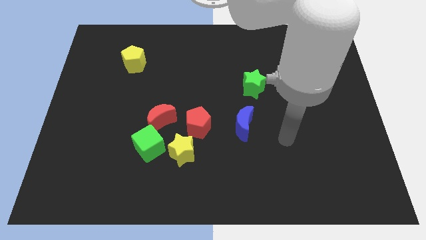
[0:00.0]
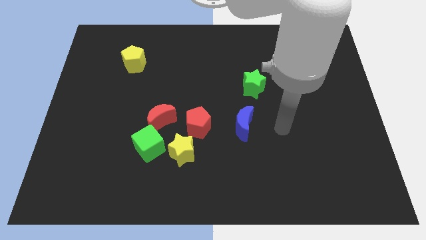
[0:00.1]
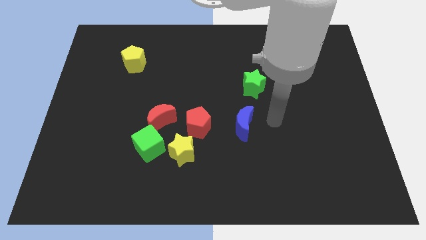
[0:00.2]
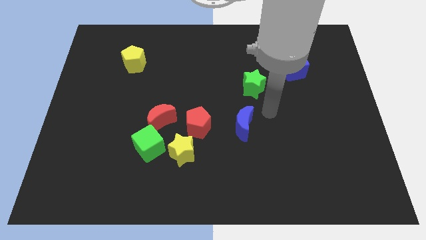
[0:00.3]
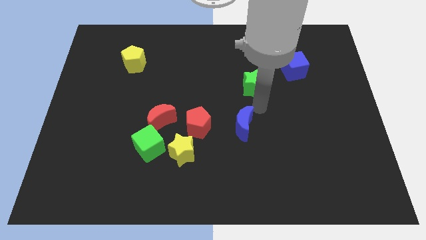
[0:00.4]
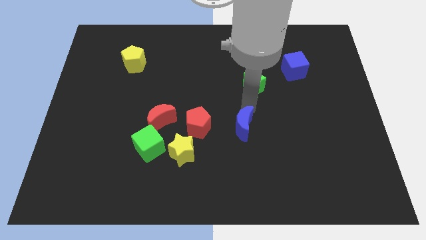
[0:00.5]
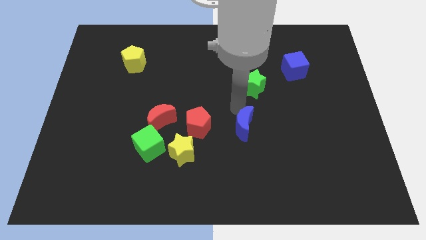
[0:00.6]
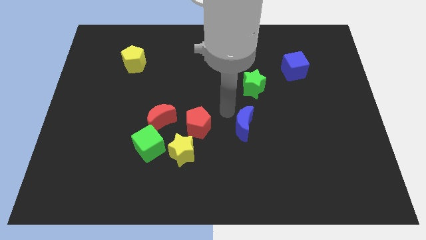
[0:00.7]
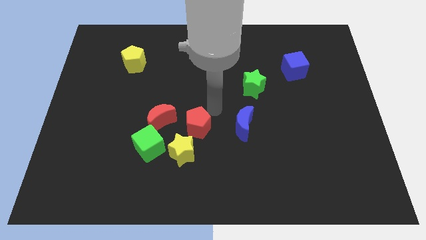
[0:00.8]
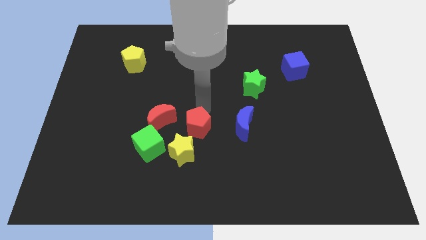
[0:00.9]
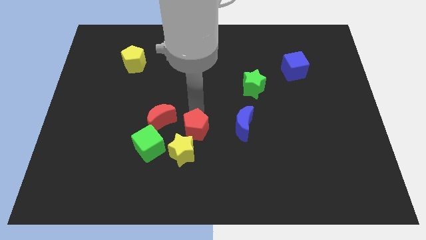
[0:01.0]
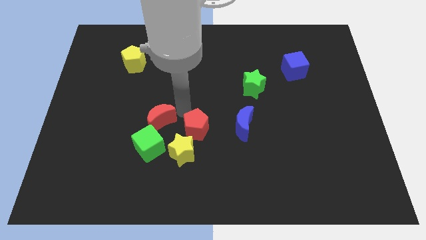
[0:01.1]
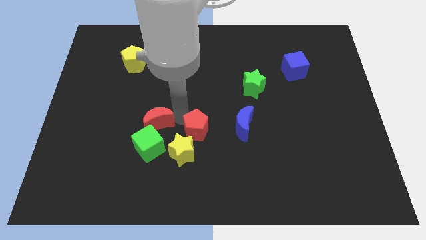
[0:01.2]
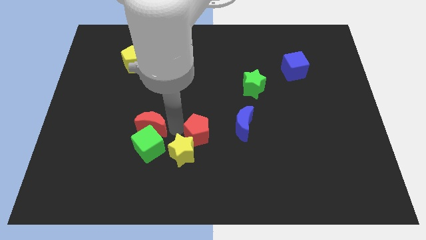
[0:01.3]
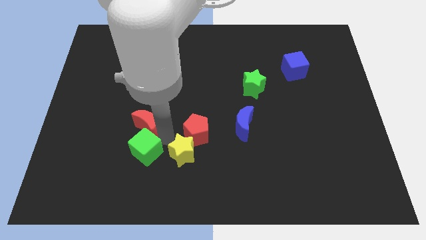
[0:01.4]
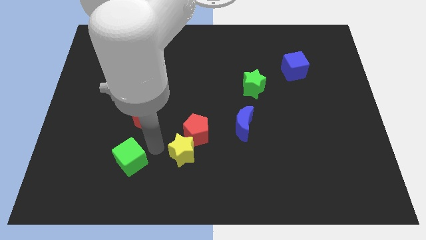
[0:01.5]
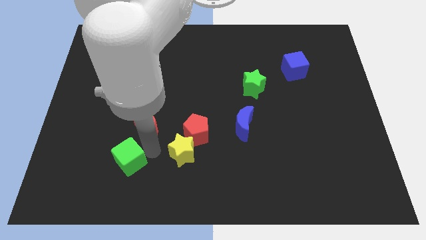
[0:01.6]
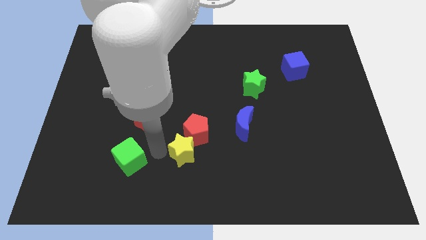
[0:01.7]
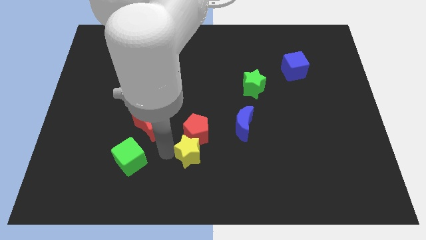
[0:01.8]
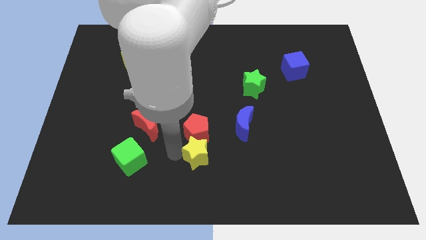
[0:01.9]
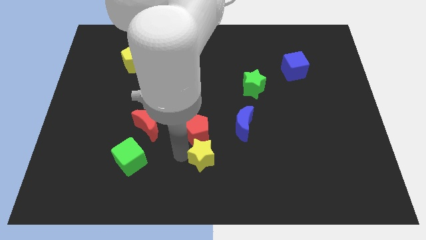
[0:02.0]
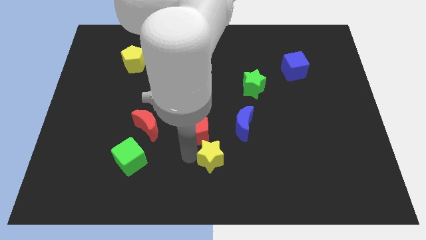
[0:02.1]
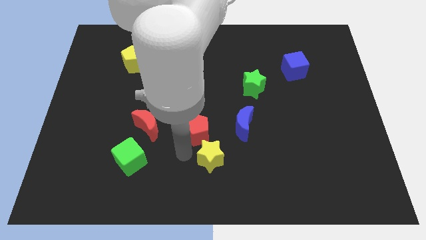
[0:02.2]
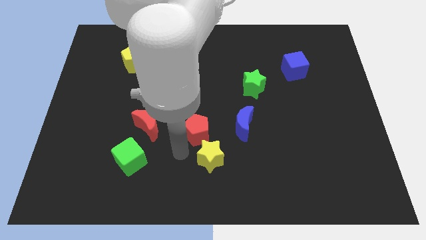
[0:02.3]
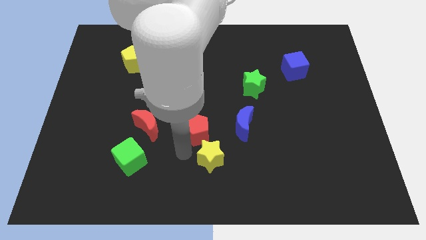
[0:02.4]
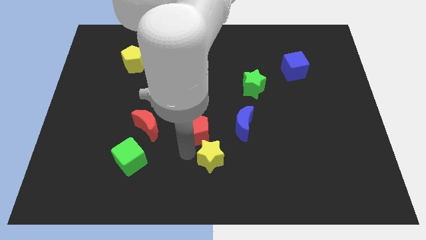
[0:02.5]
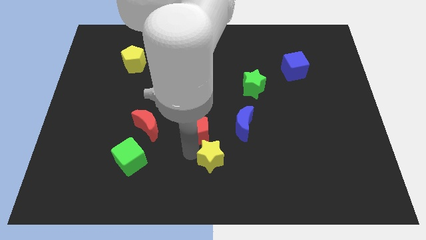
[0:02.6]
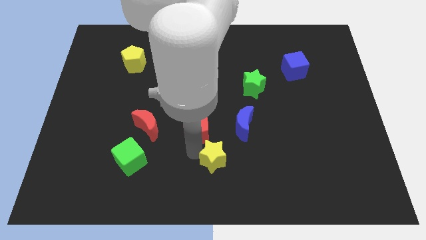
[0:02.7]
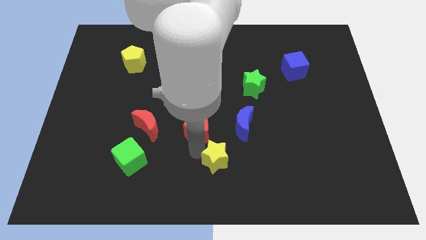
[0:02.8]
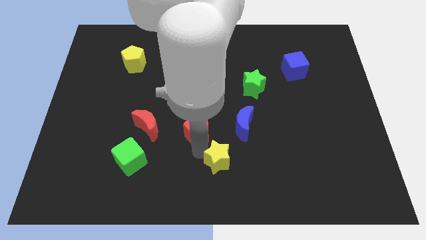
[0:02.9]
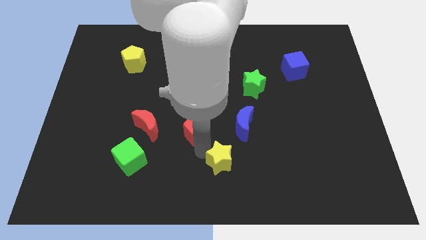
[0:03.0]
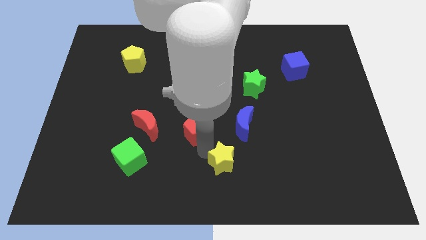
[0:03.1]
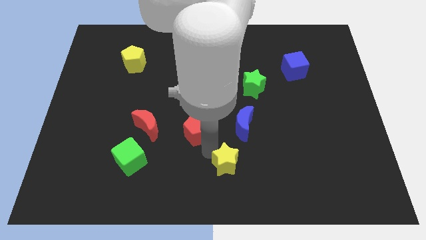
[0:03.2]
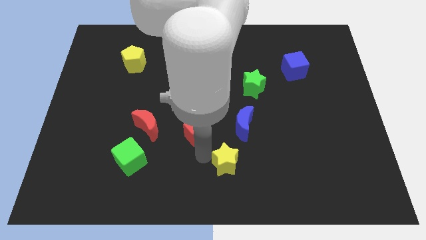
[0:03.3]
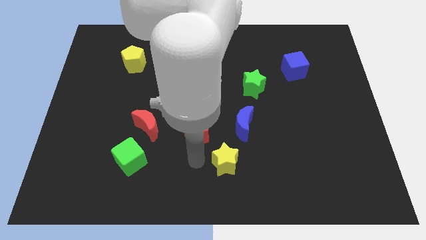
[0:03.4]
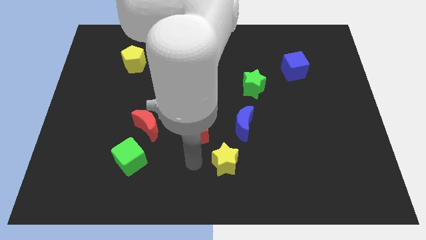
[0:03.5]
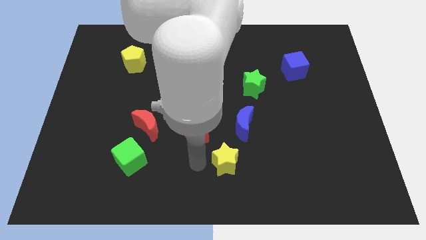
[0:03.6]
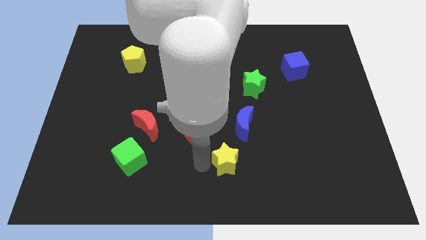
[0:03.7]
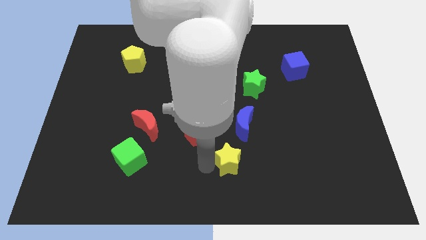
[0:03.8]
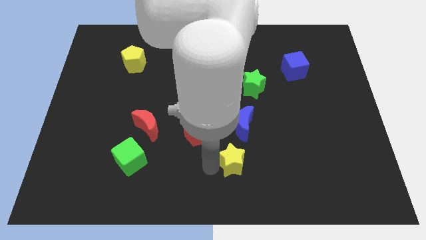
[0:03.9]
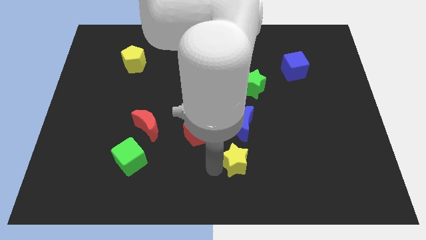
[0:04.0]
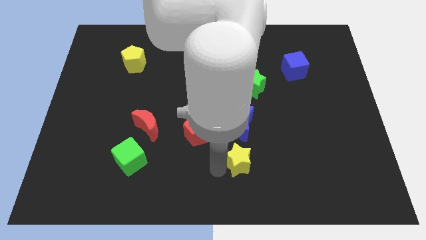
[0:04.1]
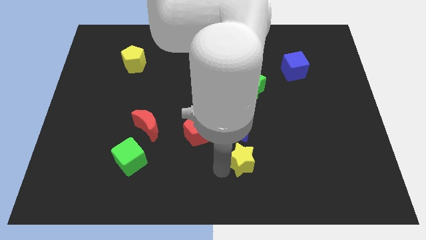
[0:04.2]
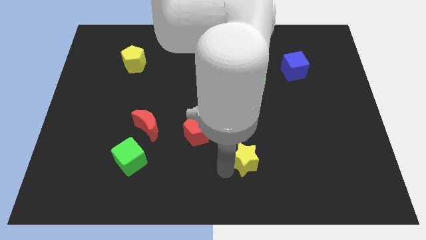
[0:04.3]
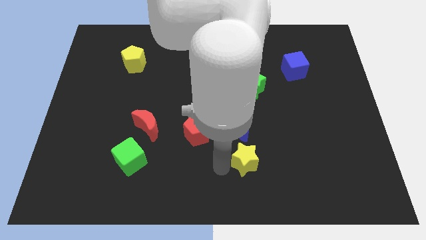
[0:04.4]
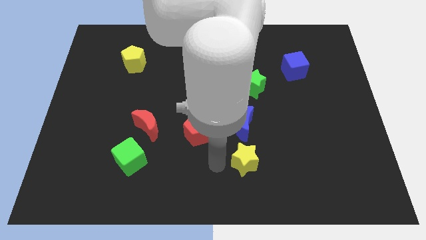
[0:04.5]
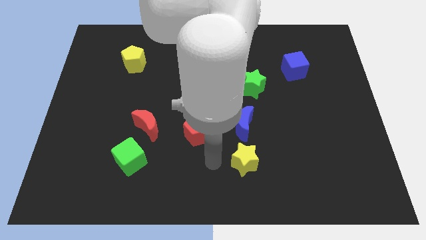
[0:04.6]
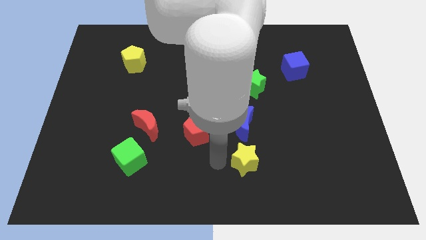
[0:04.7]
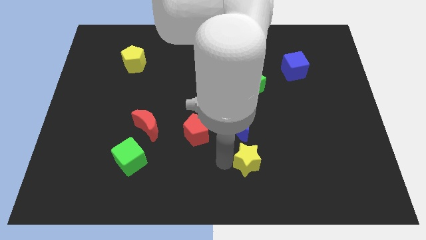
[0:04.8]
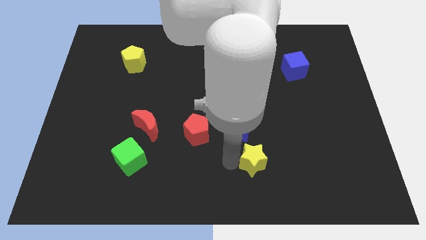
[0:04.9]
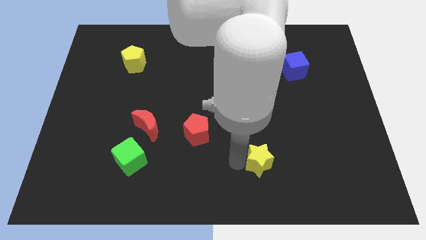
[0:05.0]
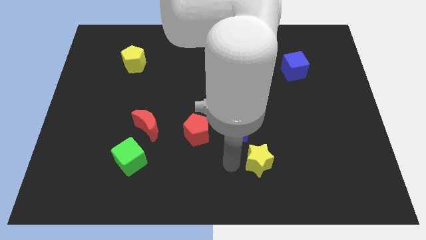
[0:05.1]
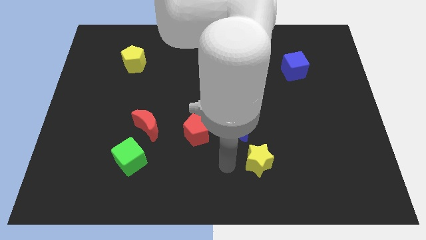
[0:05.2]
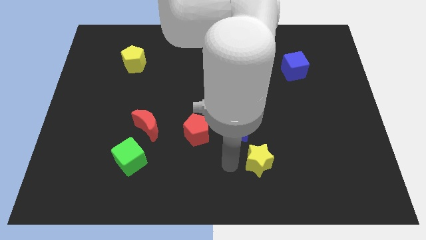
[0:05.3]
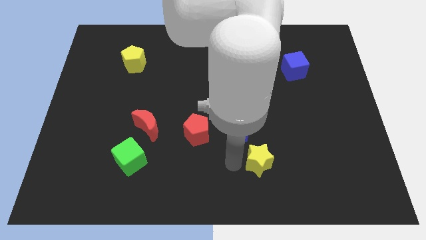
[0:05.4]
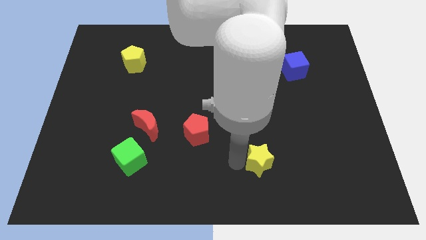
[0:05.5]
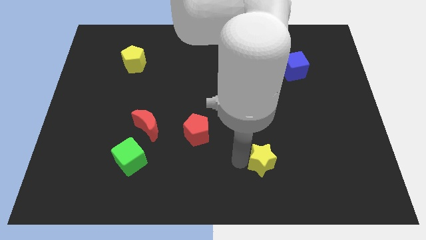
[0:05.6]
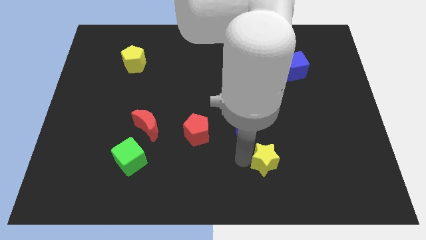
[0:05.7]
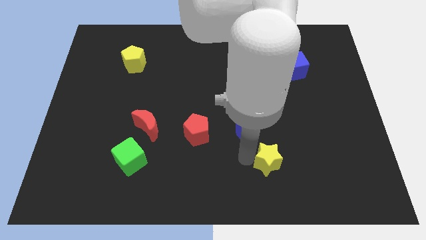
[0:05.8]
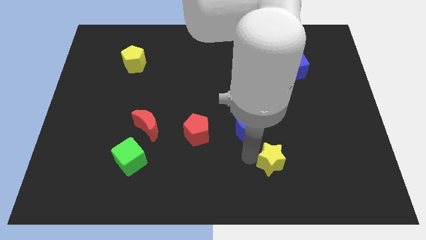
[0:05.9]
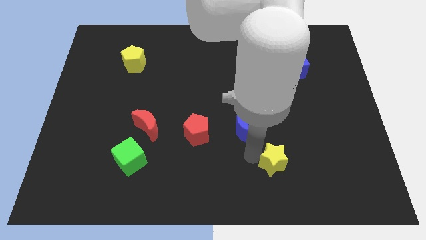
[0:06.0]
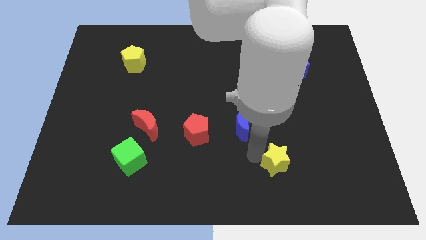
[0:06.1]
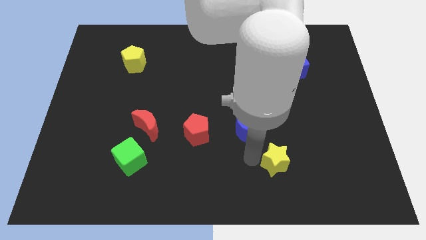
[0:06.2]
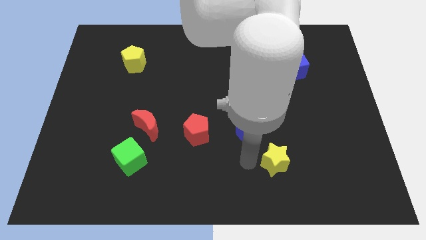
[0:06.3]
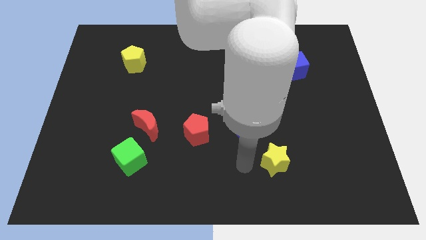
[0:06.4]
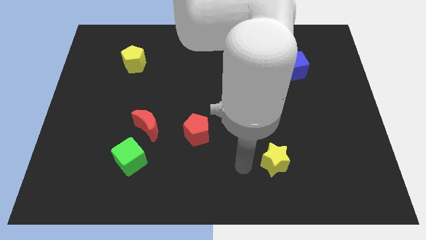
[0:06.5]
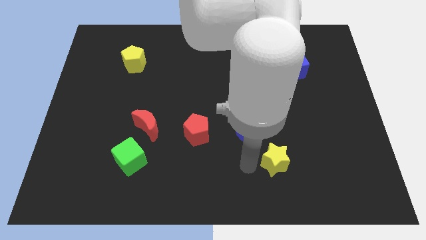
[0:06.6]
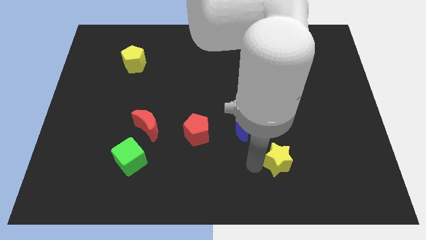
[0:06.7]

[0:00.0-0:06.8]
slide the yellow star to the right

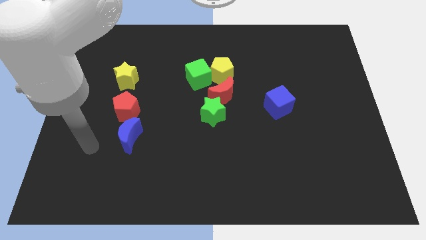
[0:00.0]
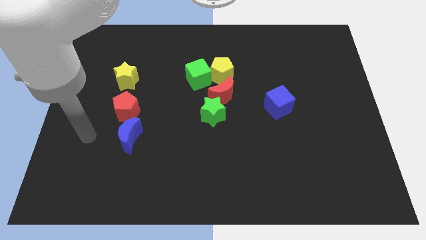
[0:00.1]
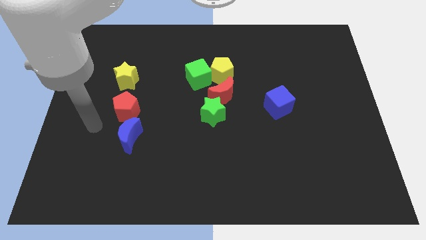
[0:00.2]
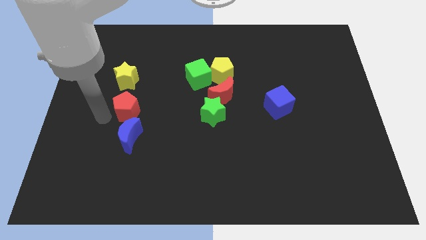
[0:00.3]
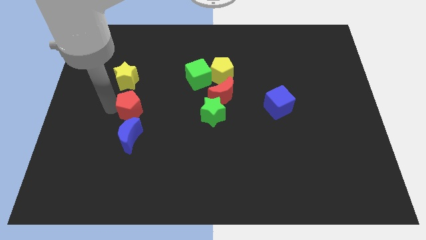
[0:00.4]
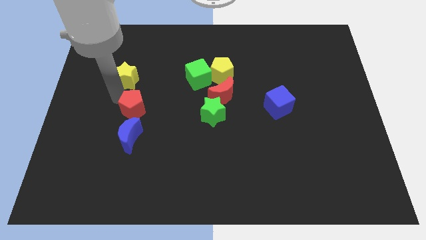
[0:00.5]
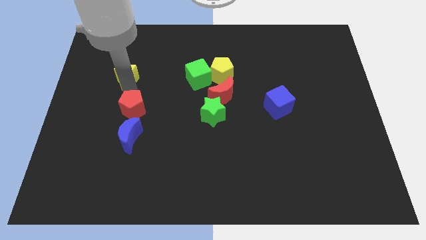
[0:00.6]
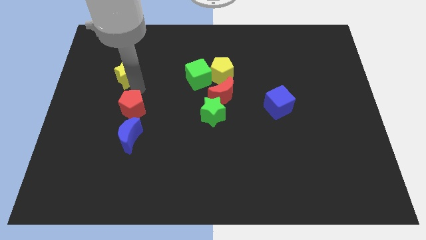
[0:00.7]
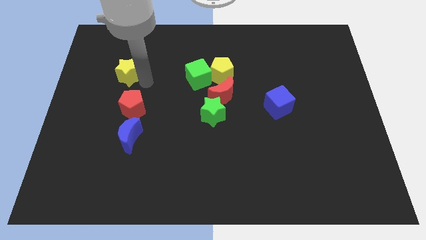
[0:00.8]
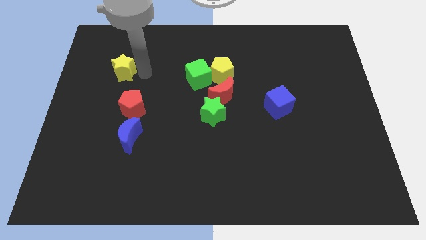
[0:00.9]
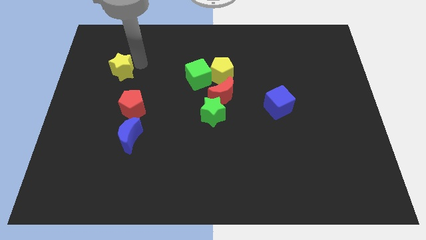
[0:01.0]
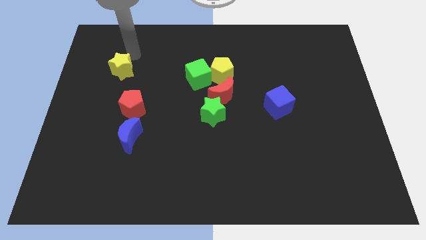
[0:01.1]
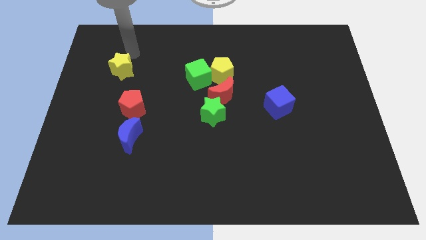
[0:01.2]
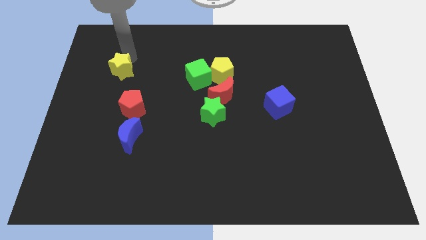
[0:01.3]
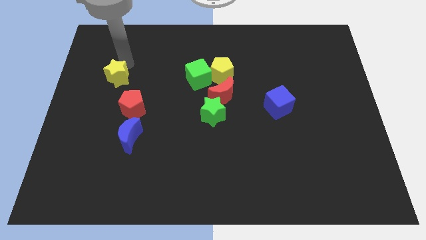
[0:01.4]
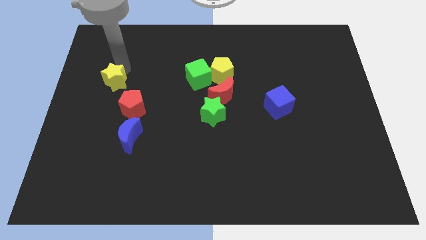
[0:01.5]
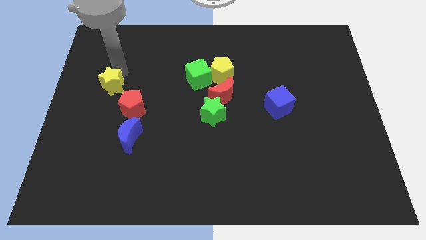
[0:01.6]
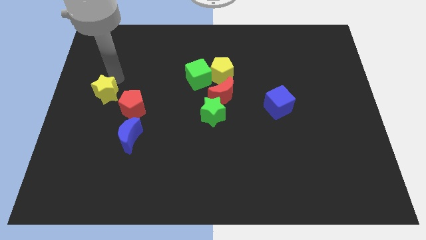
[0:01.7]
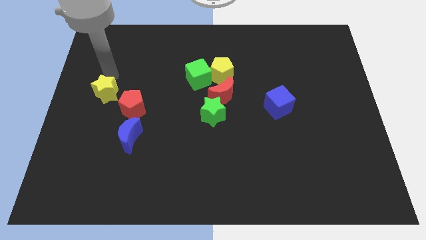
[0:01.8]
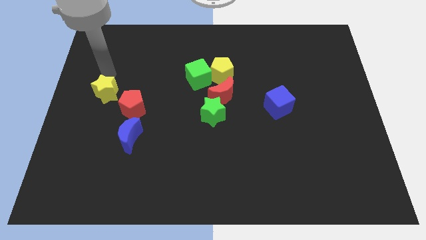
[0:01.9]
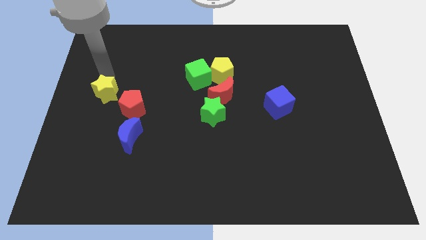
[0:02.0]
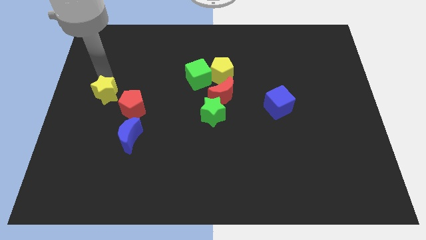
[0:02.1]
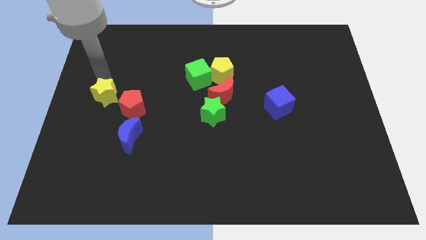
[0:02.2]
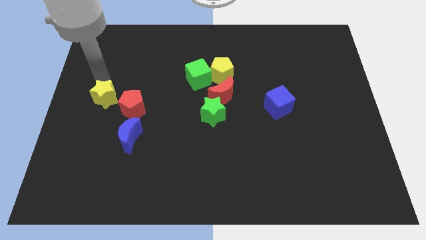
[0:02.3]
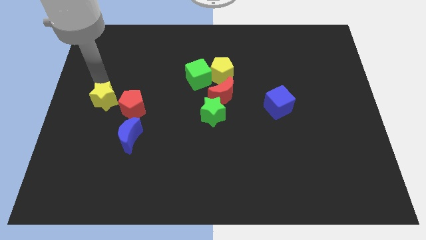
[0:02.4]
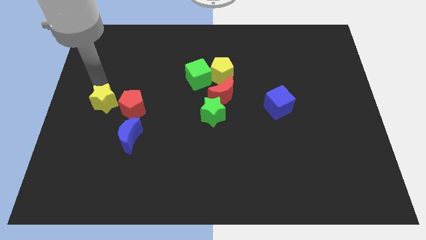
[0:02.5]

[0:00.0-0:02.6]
move the yellow star a bit downwards
